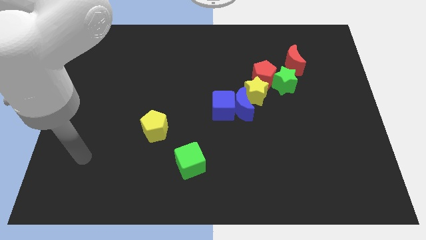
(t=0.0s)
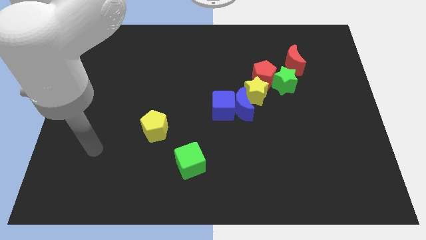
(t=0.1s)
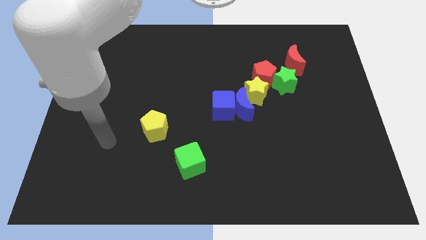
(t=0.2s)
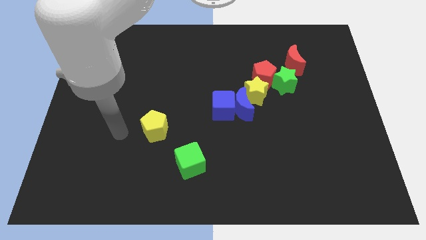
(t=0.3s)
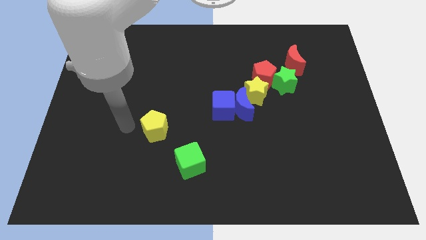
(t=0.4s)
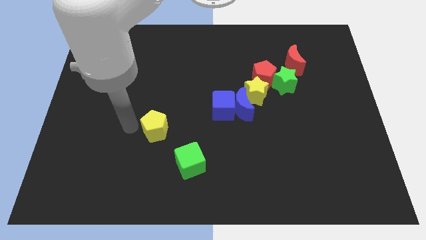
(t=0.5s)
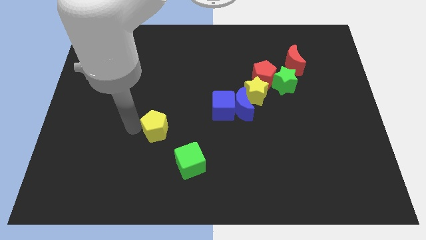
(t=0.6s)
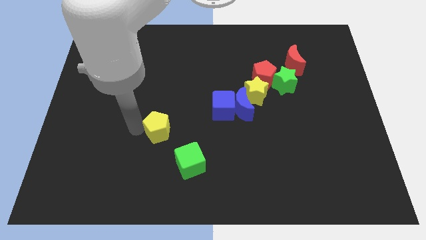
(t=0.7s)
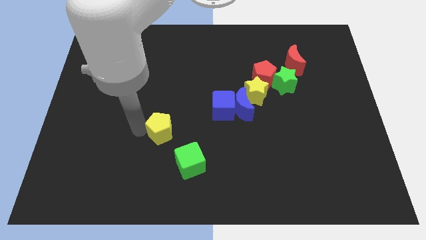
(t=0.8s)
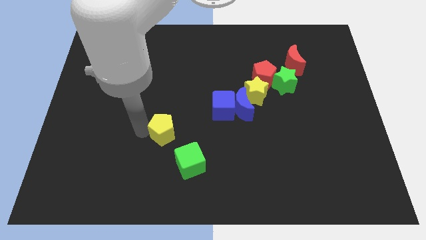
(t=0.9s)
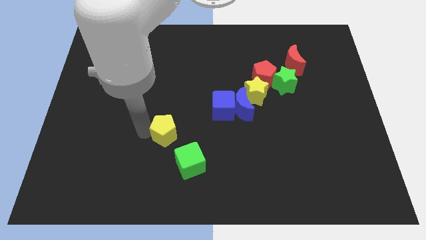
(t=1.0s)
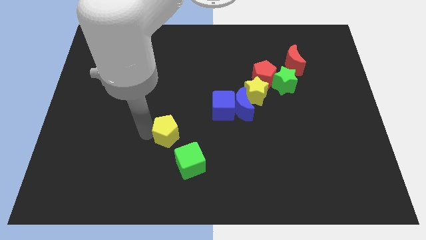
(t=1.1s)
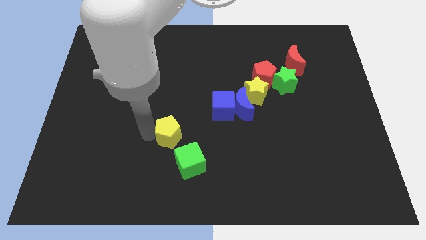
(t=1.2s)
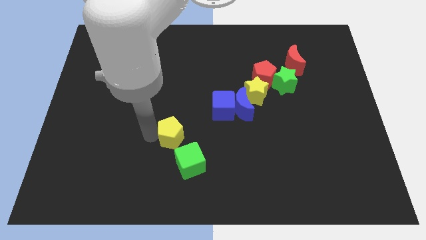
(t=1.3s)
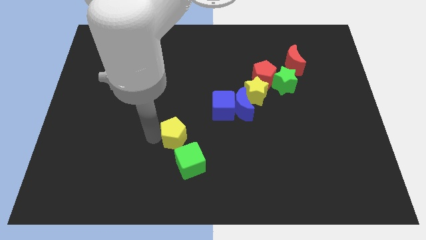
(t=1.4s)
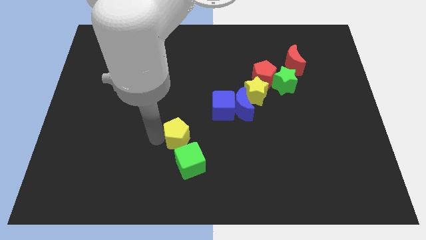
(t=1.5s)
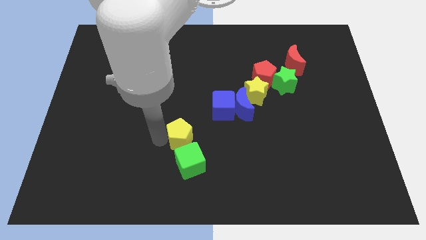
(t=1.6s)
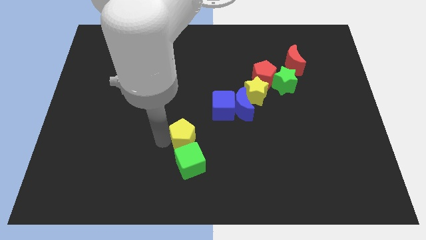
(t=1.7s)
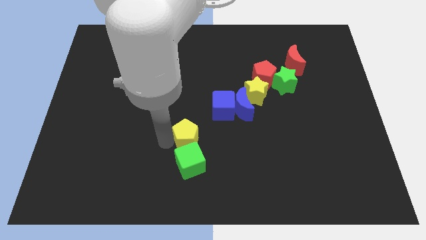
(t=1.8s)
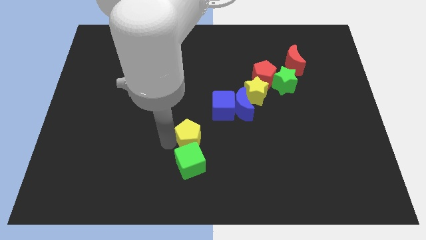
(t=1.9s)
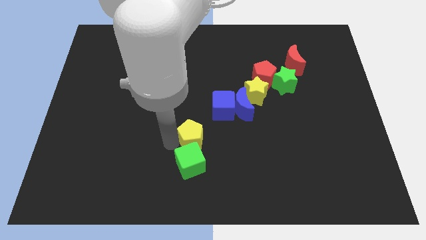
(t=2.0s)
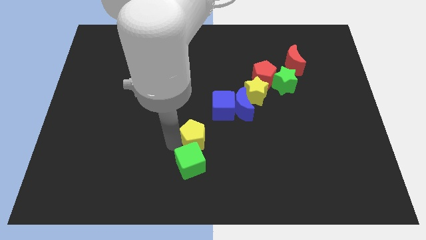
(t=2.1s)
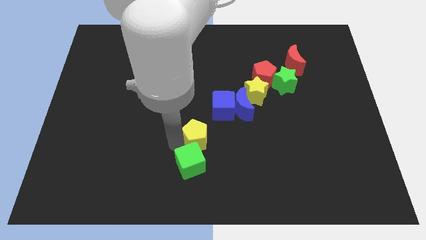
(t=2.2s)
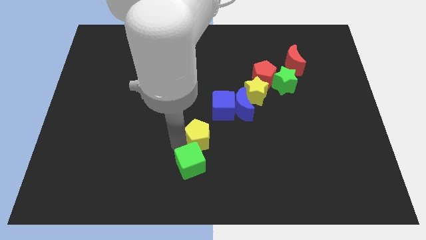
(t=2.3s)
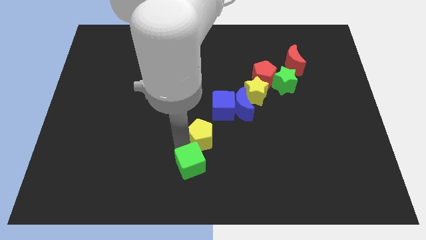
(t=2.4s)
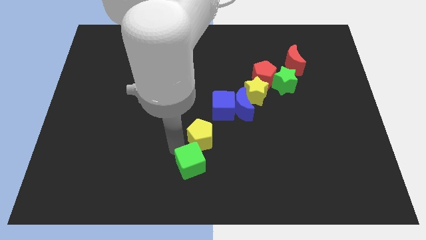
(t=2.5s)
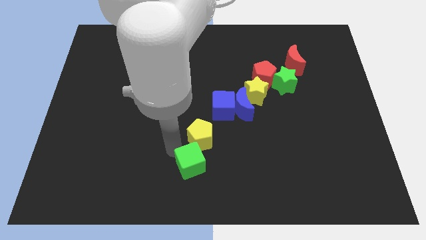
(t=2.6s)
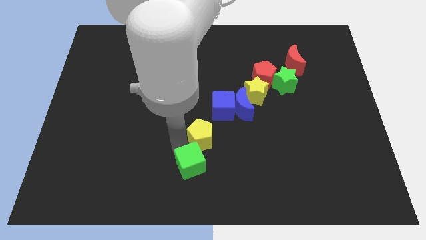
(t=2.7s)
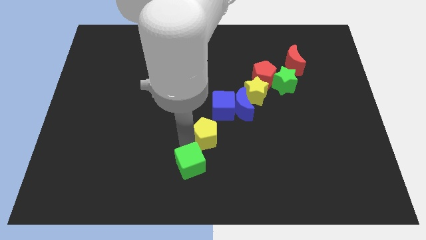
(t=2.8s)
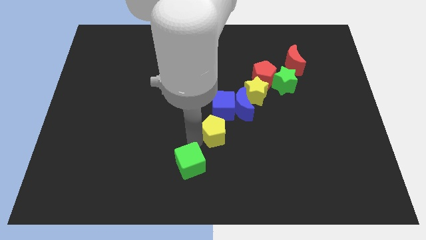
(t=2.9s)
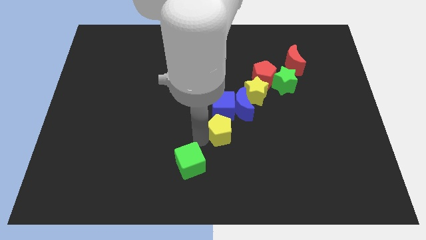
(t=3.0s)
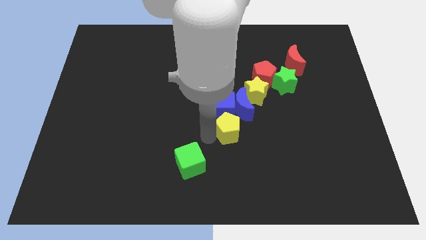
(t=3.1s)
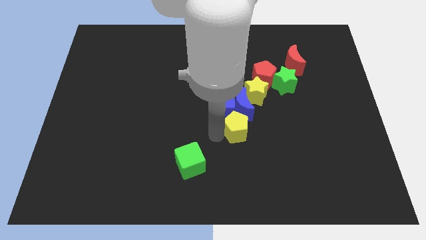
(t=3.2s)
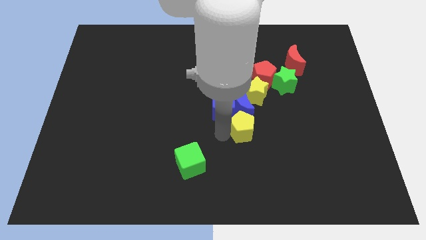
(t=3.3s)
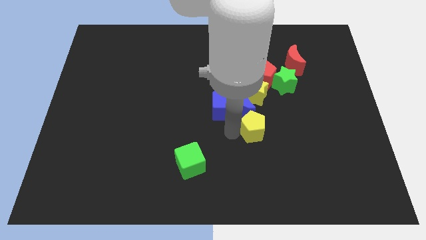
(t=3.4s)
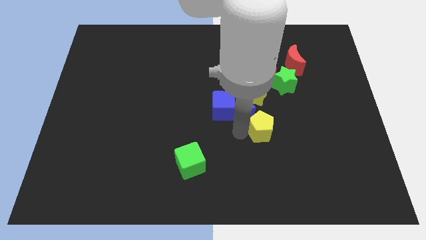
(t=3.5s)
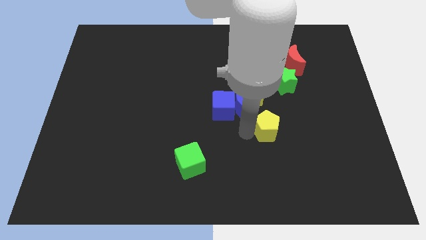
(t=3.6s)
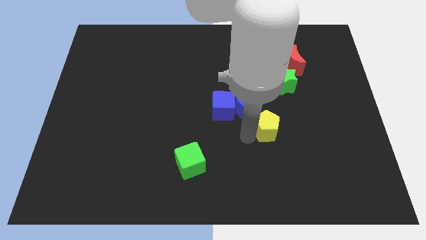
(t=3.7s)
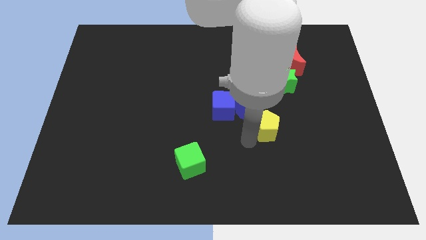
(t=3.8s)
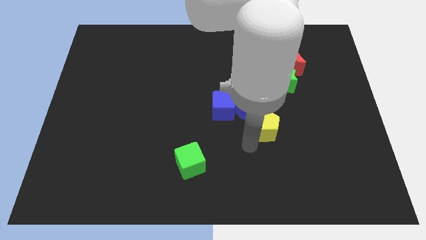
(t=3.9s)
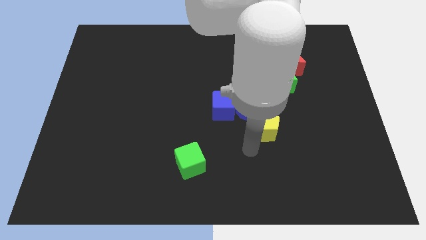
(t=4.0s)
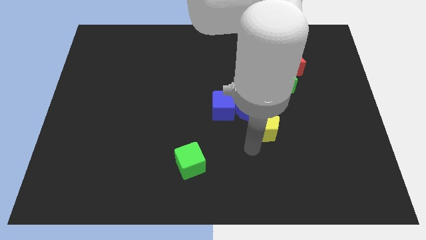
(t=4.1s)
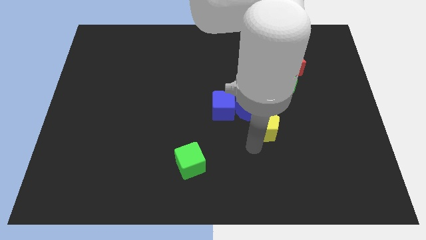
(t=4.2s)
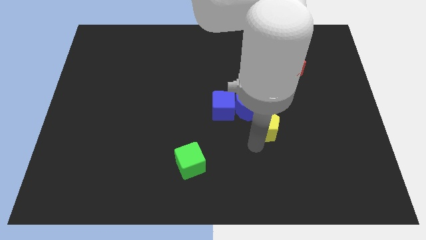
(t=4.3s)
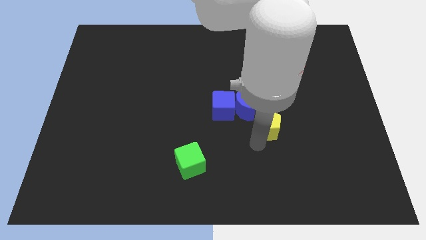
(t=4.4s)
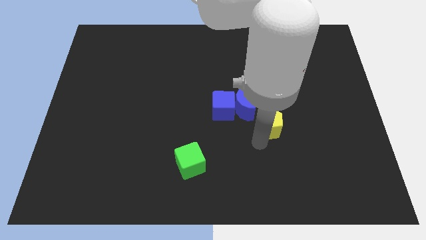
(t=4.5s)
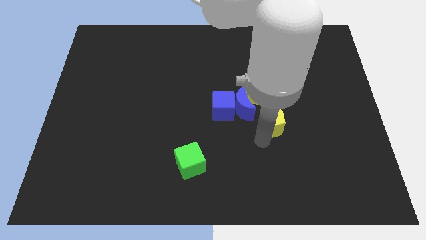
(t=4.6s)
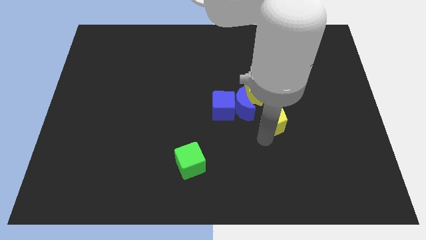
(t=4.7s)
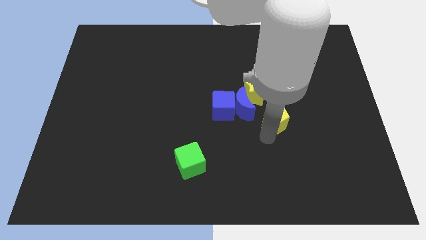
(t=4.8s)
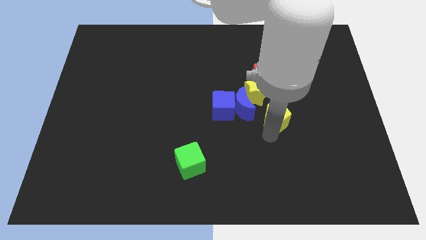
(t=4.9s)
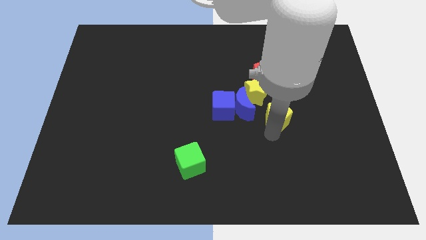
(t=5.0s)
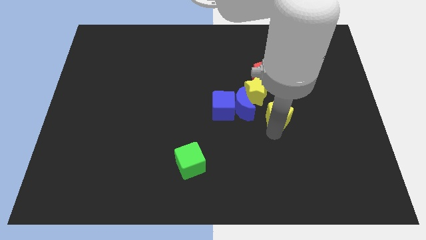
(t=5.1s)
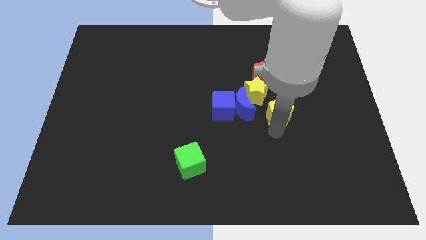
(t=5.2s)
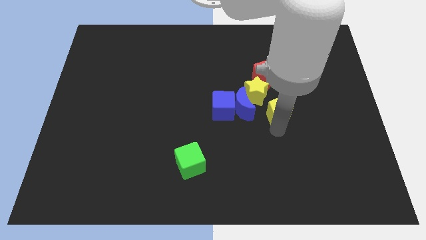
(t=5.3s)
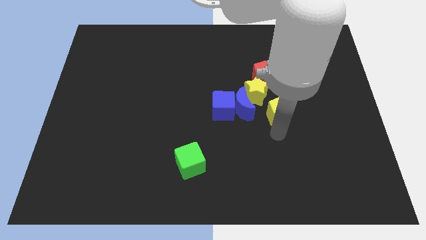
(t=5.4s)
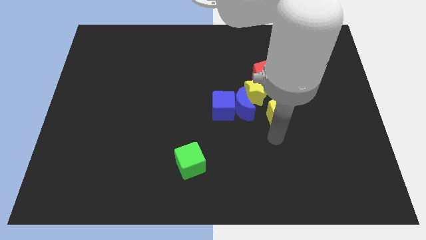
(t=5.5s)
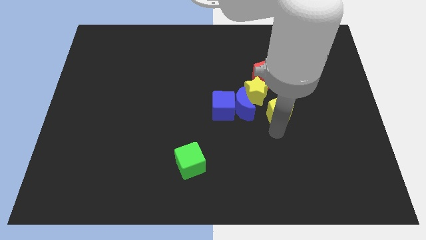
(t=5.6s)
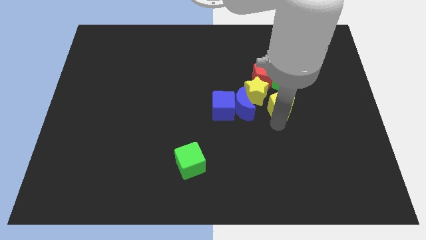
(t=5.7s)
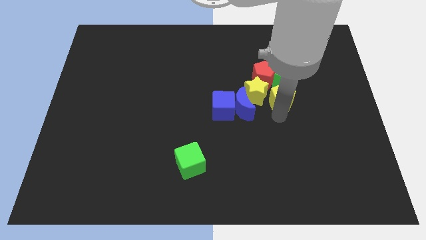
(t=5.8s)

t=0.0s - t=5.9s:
push the yellow pentagon to the green star
